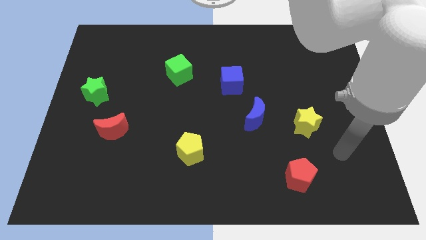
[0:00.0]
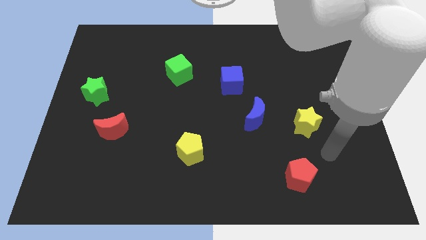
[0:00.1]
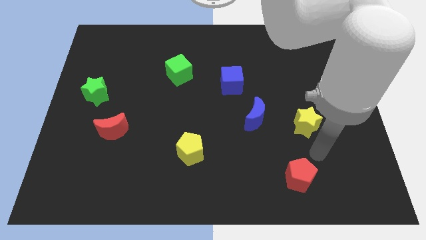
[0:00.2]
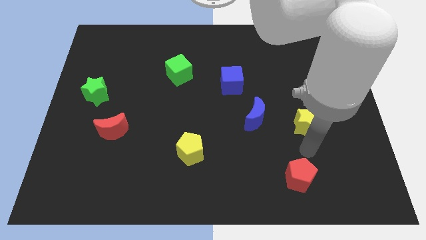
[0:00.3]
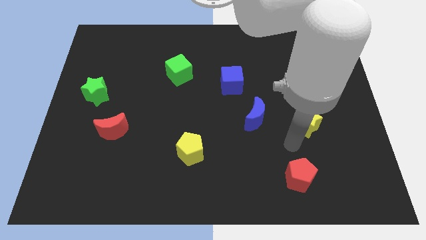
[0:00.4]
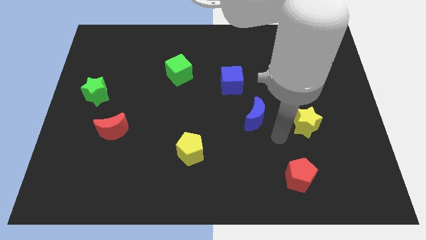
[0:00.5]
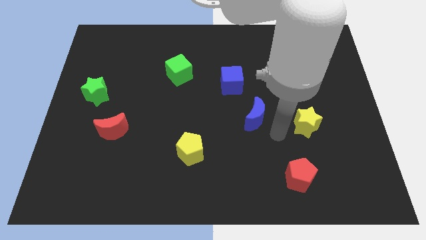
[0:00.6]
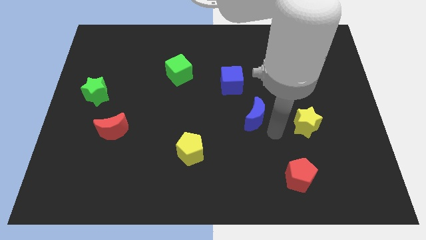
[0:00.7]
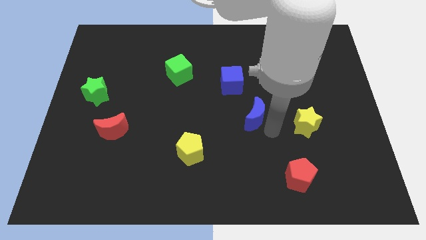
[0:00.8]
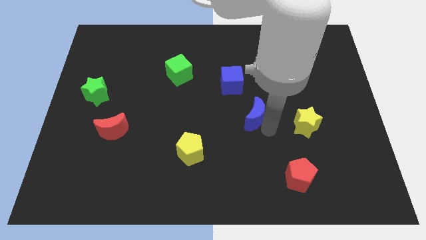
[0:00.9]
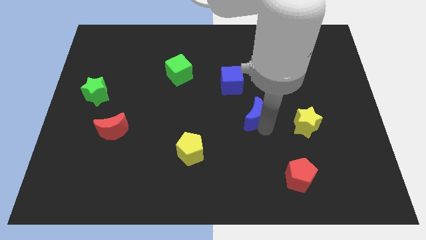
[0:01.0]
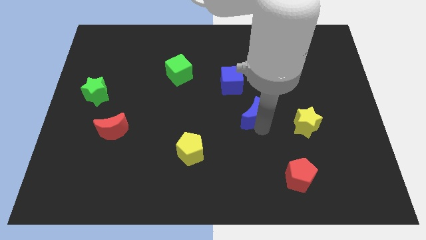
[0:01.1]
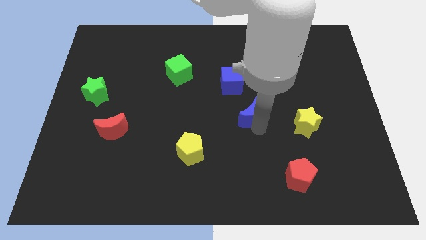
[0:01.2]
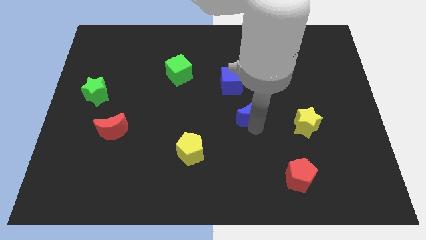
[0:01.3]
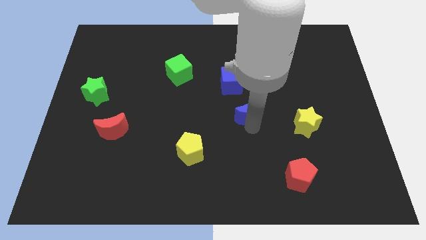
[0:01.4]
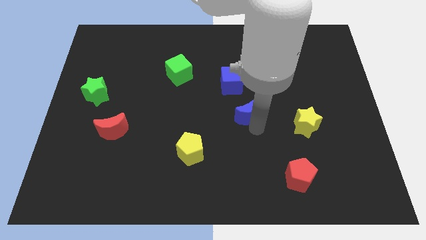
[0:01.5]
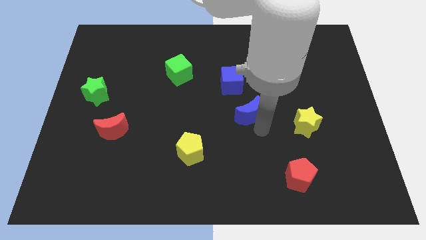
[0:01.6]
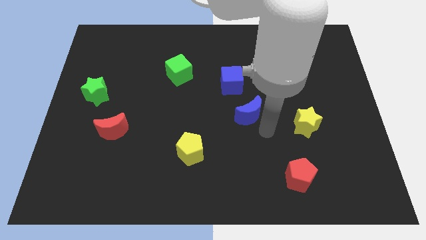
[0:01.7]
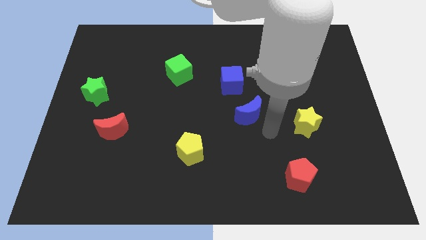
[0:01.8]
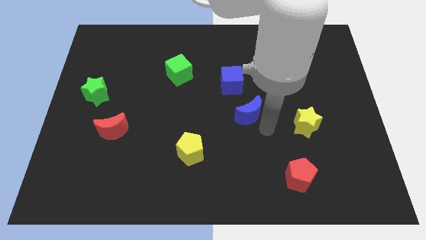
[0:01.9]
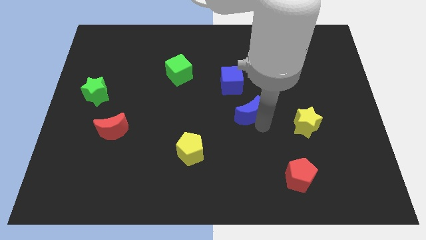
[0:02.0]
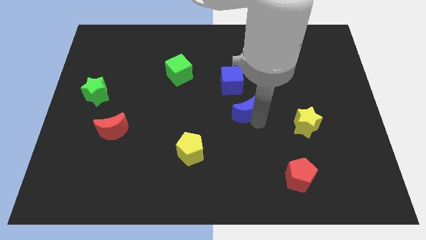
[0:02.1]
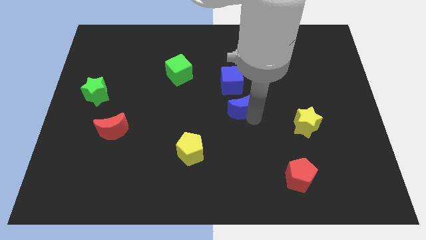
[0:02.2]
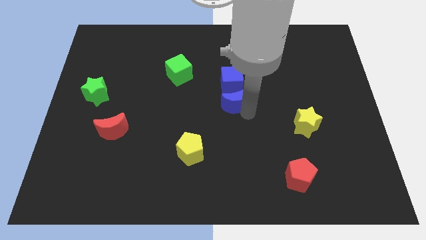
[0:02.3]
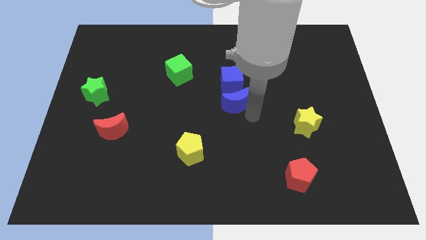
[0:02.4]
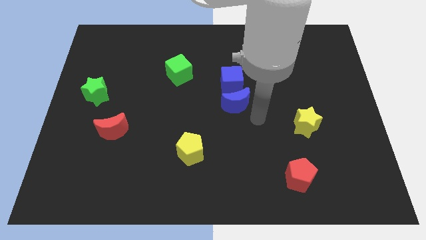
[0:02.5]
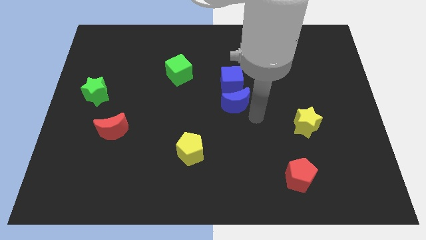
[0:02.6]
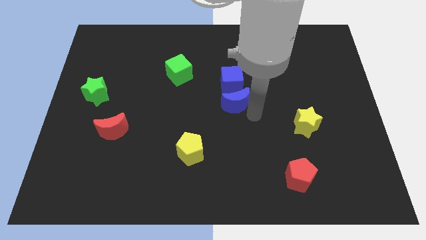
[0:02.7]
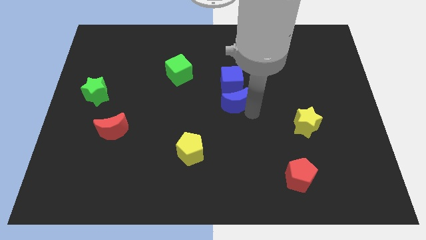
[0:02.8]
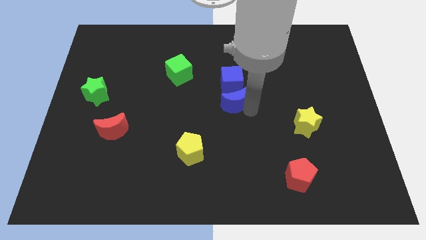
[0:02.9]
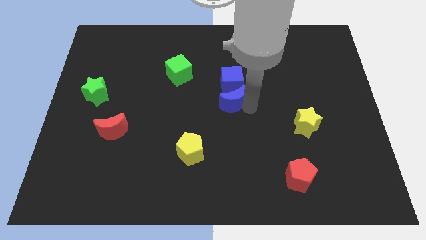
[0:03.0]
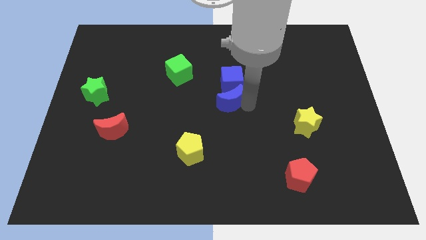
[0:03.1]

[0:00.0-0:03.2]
slide the blue moon upwards and then left a bit

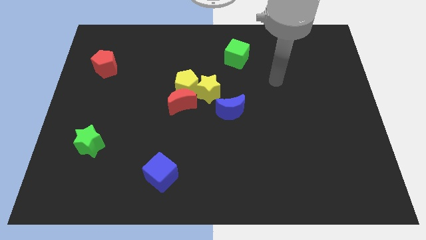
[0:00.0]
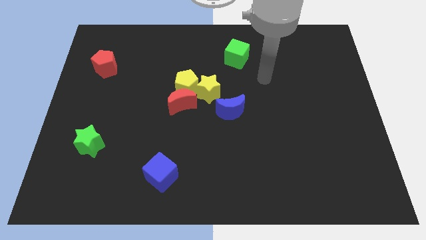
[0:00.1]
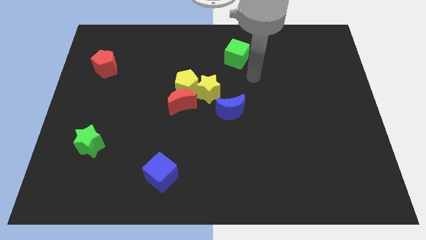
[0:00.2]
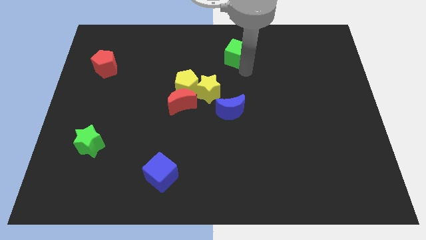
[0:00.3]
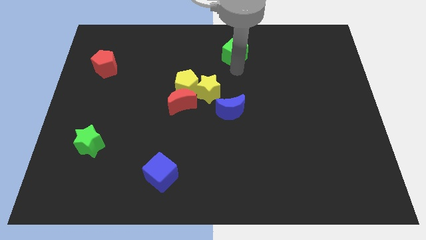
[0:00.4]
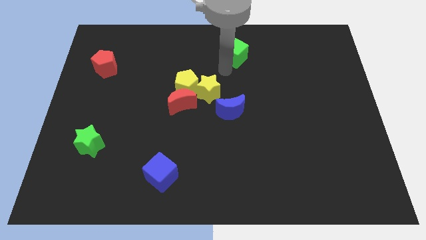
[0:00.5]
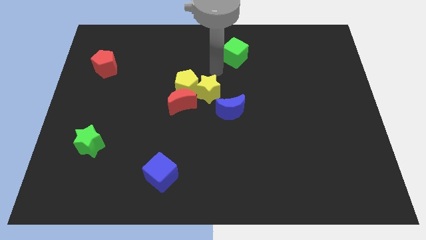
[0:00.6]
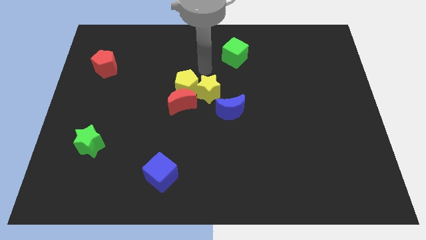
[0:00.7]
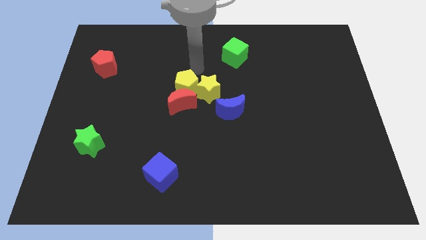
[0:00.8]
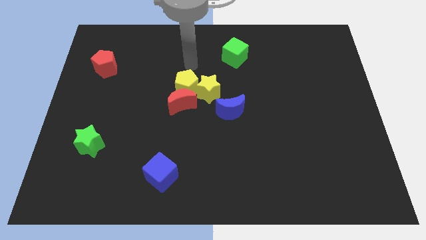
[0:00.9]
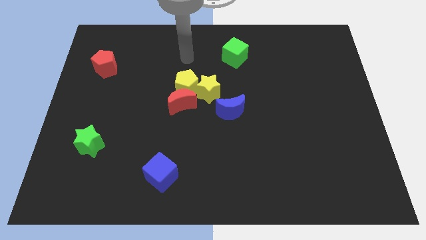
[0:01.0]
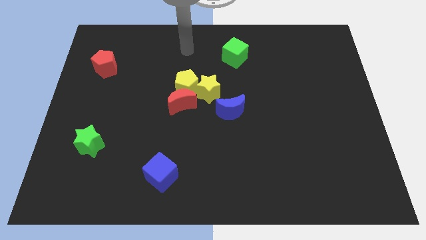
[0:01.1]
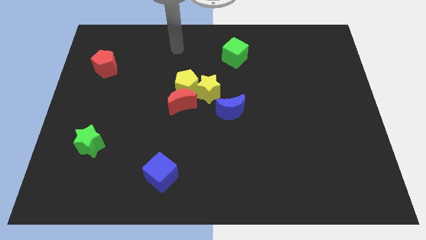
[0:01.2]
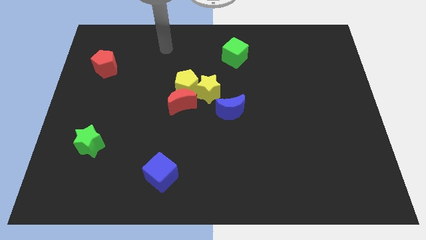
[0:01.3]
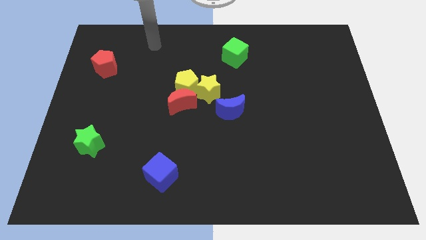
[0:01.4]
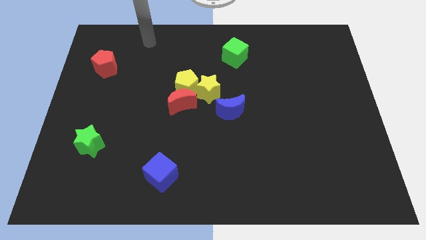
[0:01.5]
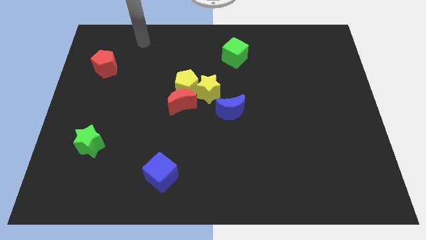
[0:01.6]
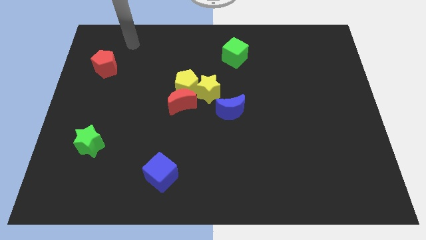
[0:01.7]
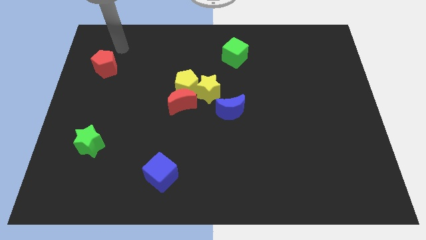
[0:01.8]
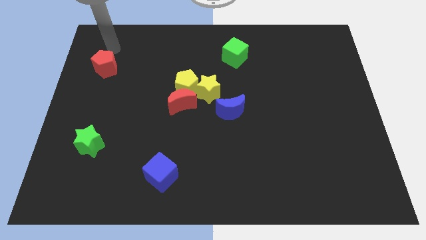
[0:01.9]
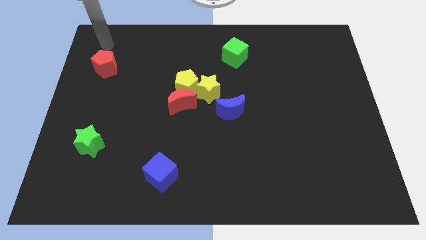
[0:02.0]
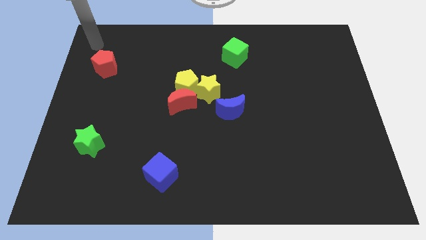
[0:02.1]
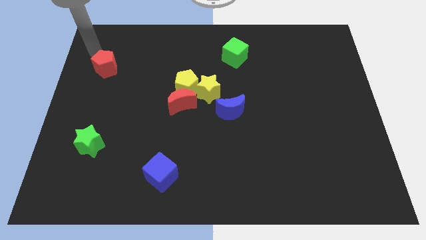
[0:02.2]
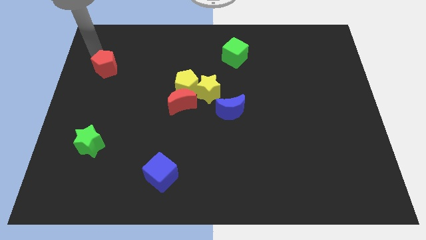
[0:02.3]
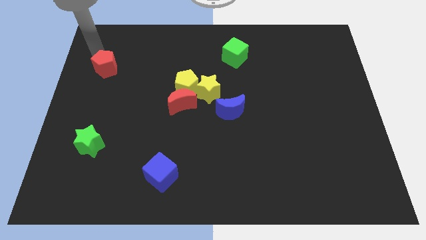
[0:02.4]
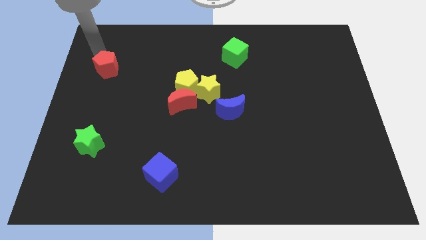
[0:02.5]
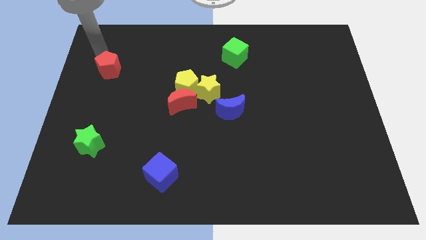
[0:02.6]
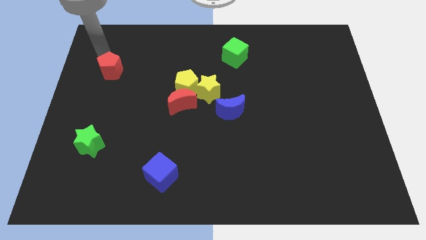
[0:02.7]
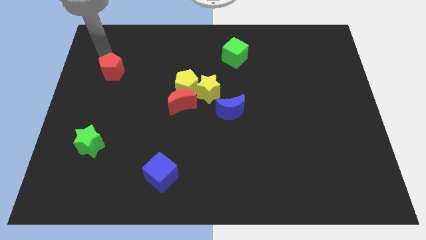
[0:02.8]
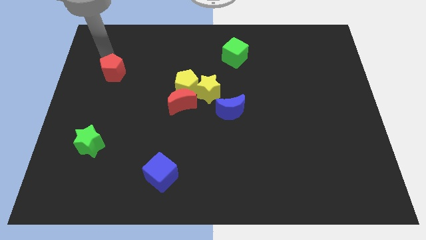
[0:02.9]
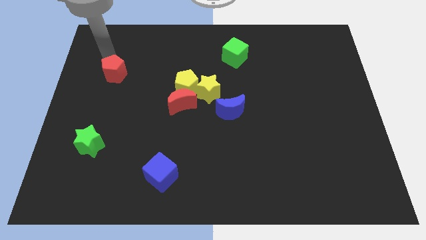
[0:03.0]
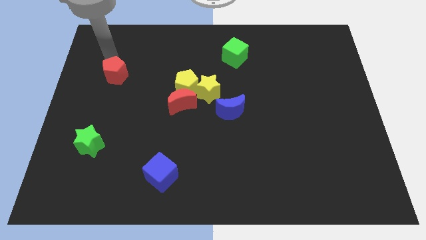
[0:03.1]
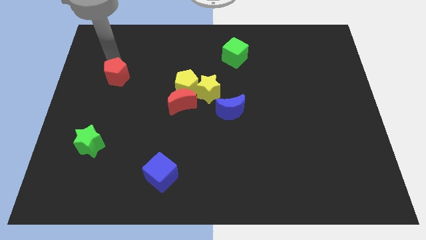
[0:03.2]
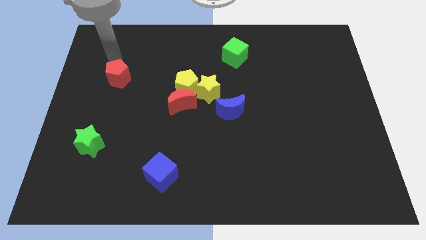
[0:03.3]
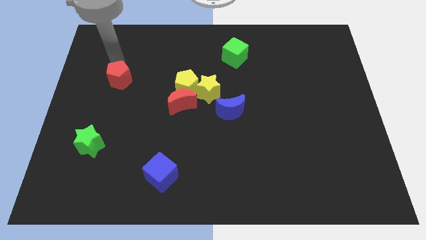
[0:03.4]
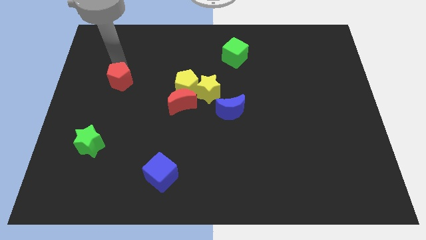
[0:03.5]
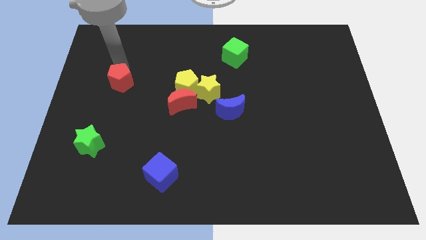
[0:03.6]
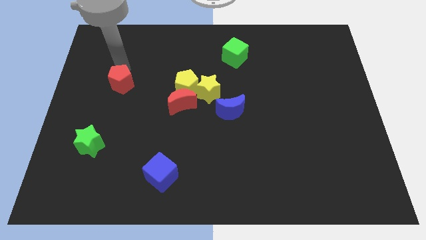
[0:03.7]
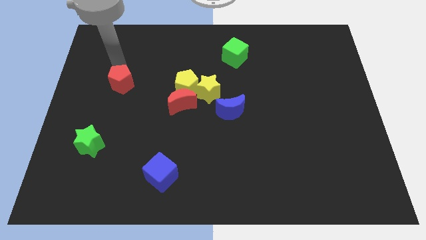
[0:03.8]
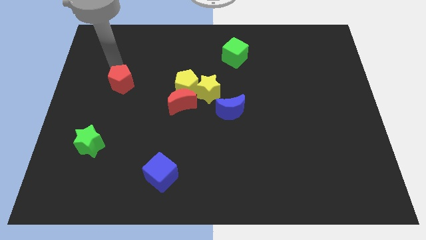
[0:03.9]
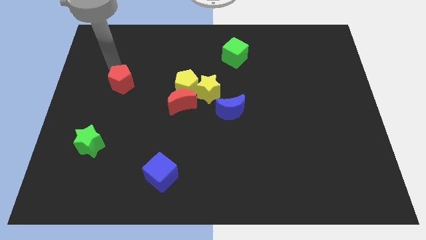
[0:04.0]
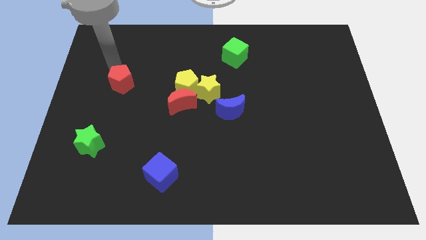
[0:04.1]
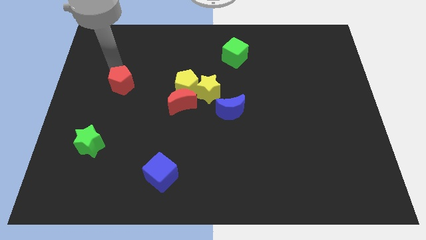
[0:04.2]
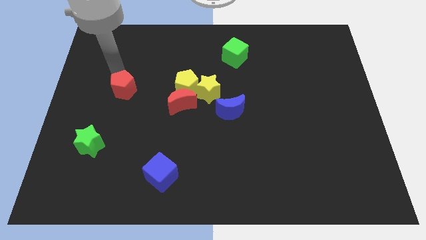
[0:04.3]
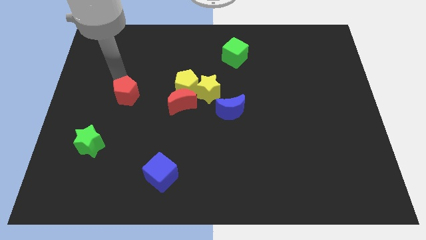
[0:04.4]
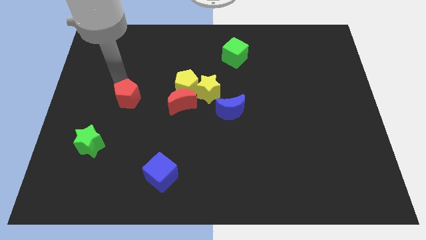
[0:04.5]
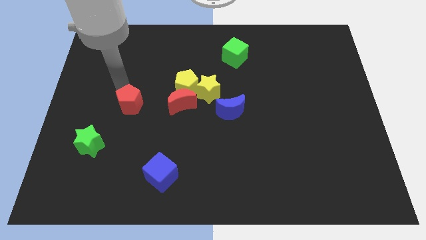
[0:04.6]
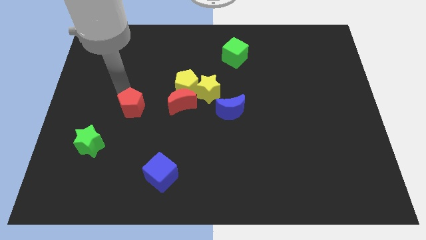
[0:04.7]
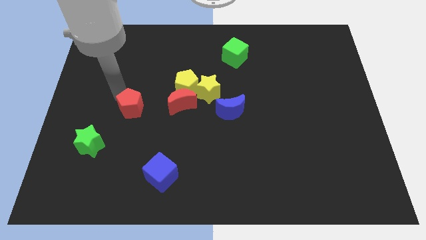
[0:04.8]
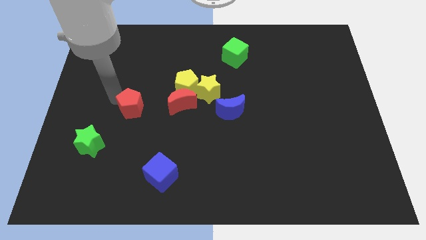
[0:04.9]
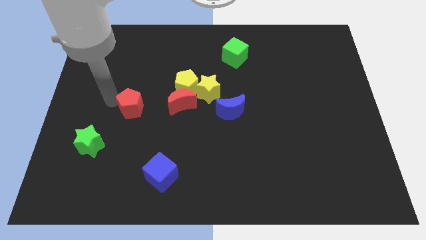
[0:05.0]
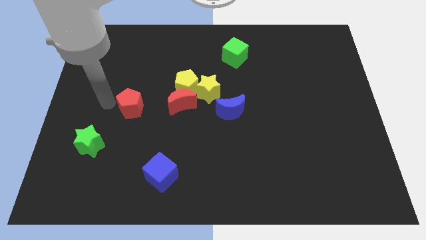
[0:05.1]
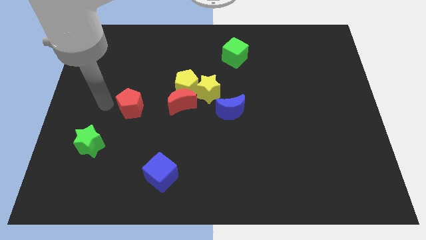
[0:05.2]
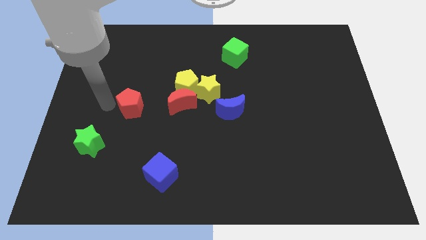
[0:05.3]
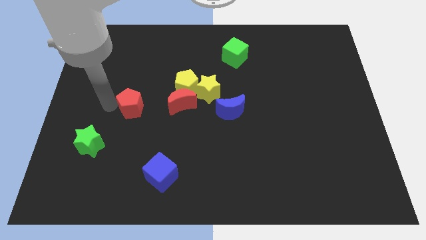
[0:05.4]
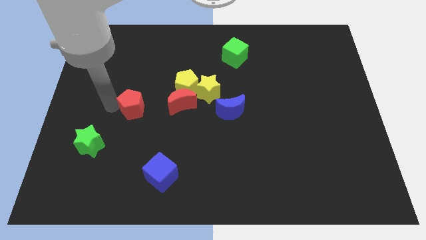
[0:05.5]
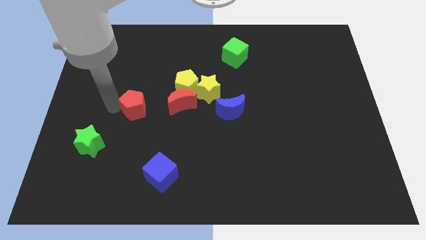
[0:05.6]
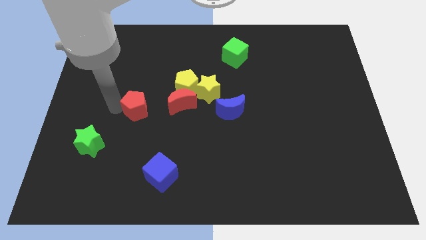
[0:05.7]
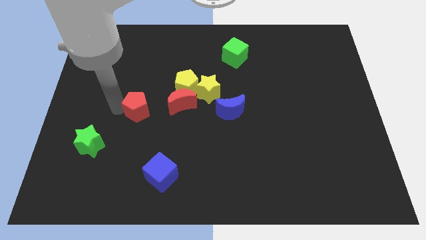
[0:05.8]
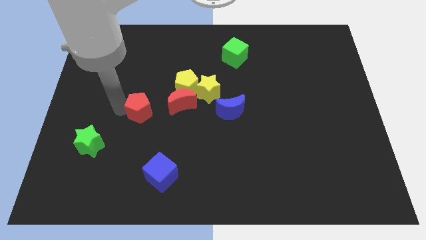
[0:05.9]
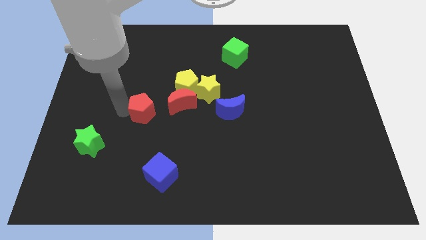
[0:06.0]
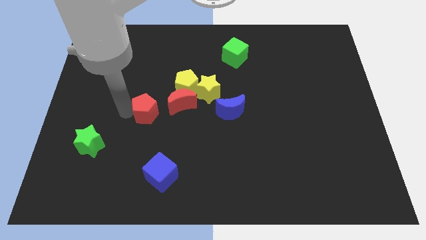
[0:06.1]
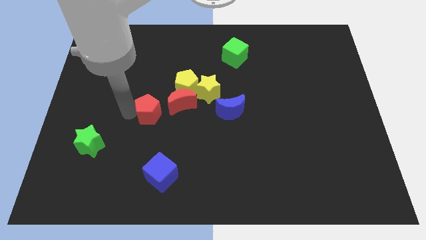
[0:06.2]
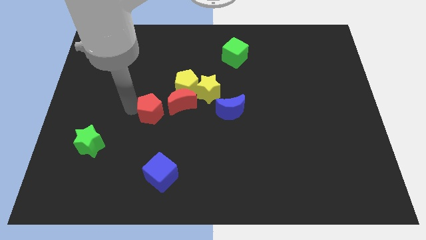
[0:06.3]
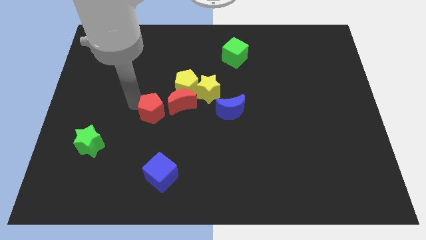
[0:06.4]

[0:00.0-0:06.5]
push the red pentagon diagonally down and right
